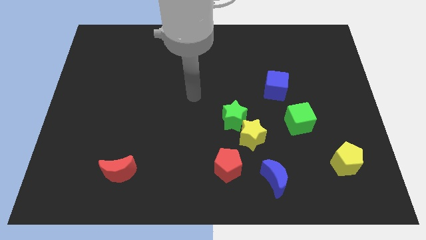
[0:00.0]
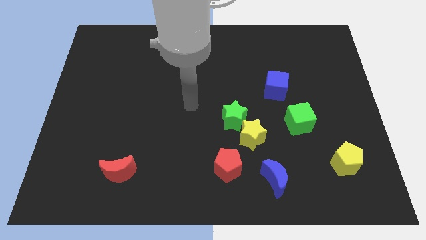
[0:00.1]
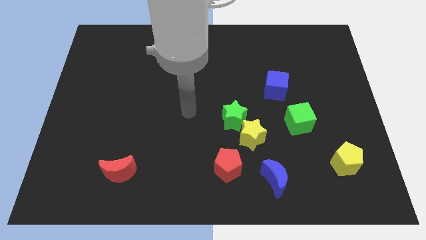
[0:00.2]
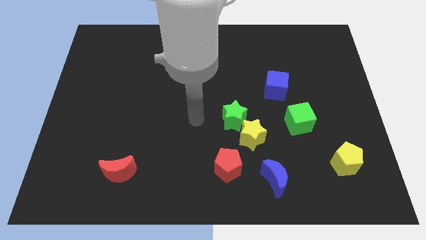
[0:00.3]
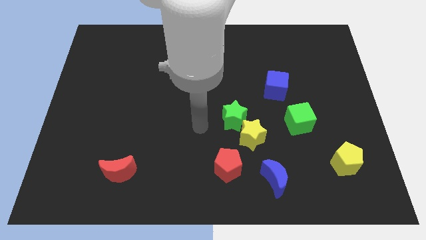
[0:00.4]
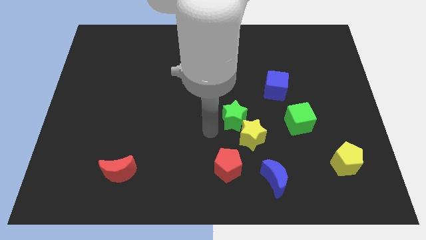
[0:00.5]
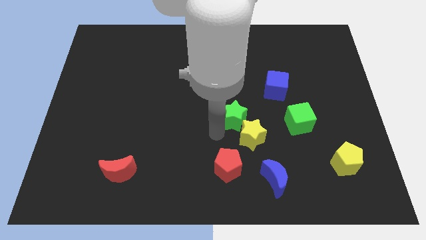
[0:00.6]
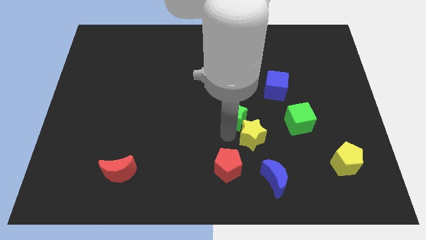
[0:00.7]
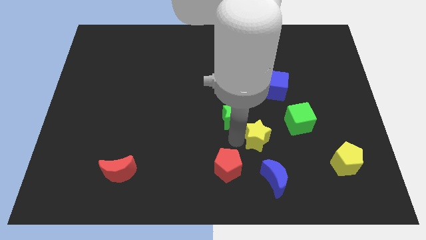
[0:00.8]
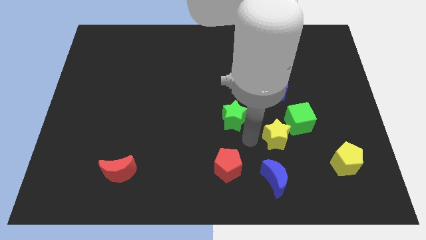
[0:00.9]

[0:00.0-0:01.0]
pull the green star apart from the yellow star

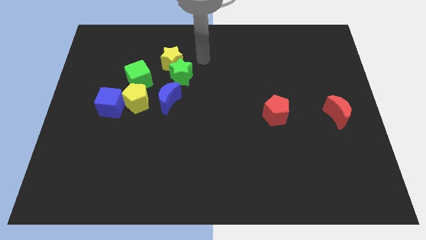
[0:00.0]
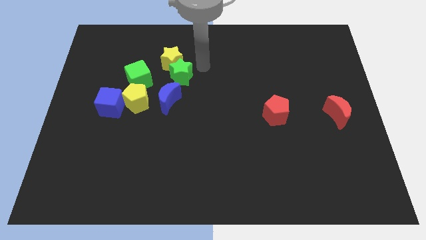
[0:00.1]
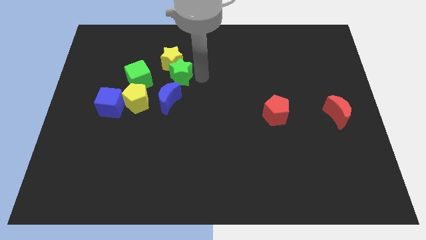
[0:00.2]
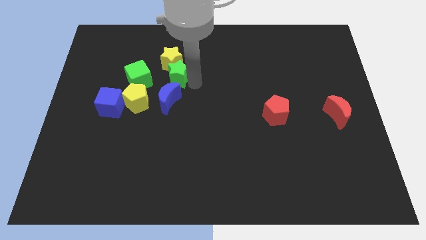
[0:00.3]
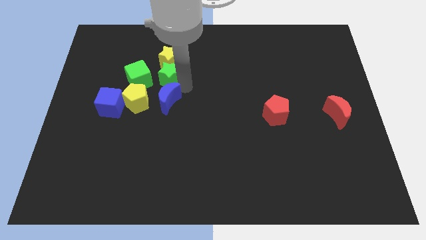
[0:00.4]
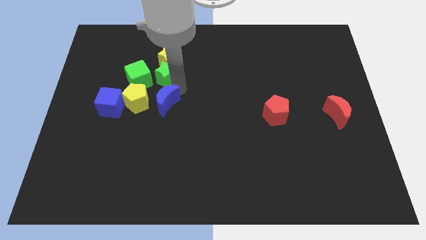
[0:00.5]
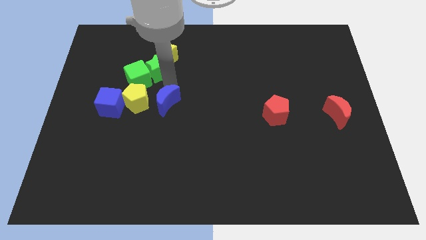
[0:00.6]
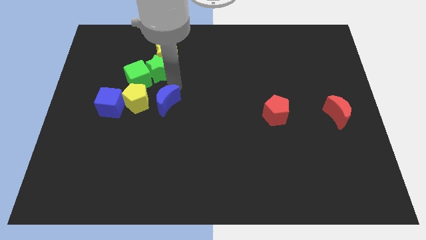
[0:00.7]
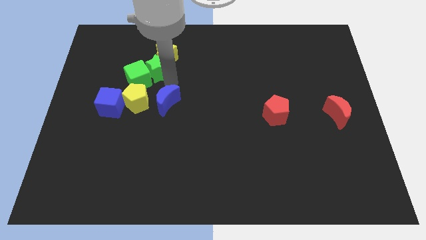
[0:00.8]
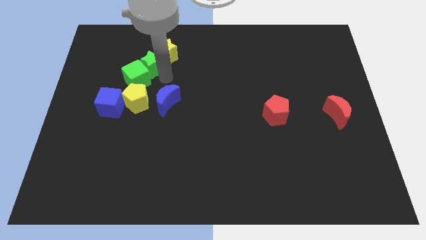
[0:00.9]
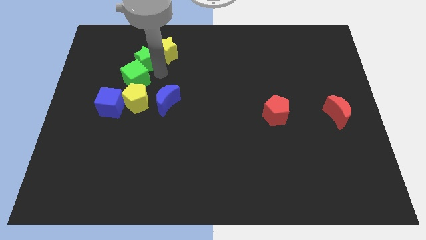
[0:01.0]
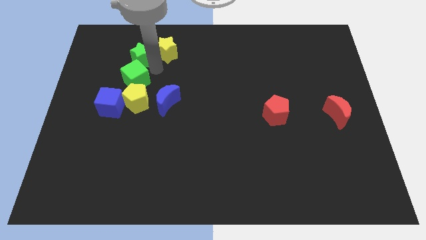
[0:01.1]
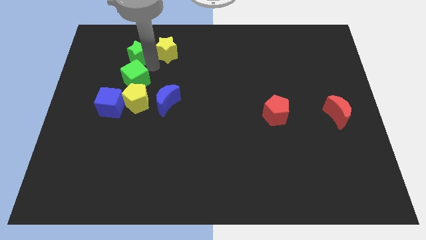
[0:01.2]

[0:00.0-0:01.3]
move the green star away from the yellow star and blue moon

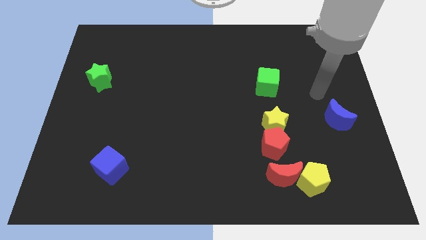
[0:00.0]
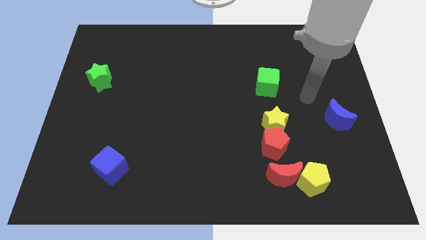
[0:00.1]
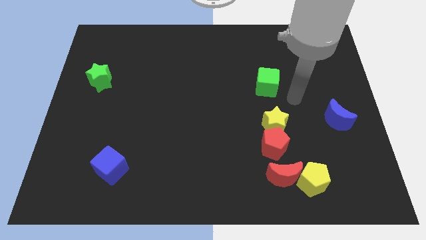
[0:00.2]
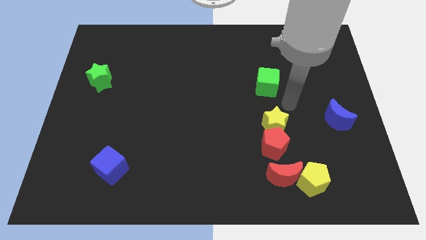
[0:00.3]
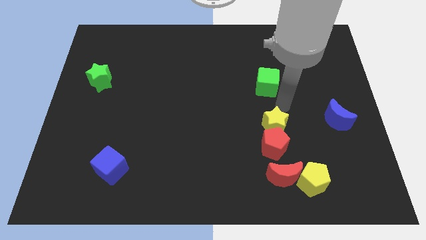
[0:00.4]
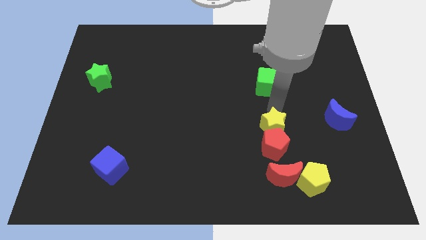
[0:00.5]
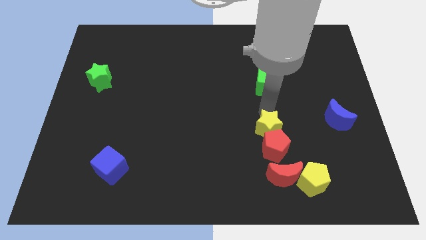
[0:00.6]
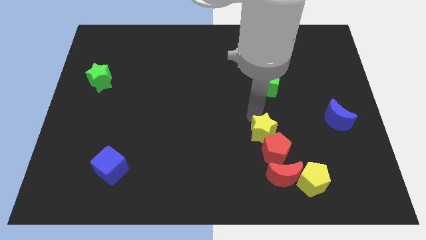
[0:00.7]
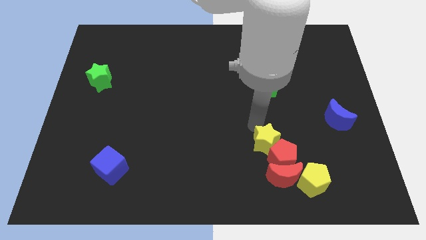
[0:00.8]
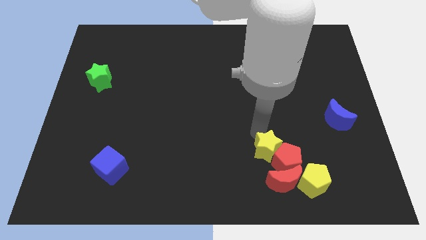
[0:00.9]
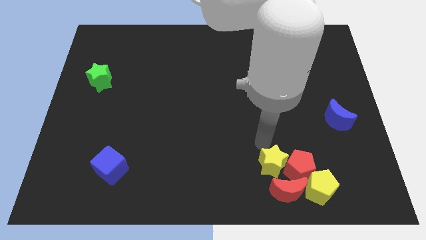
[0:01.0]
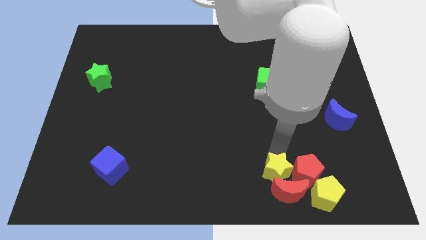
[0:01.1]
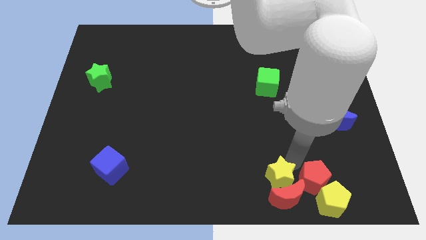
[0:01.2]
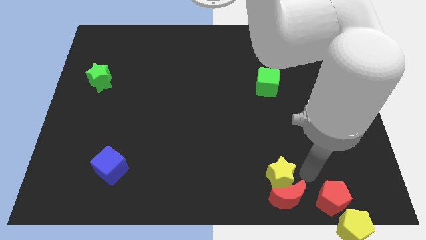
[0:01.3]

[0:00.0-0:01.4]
pull the yellow star apart from the red pentagon

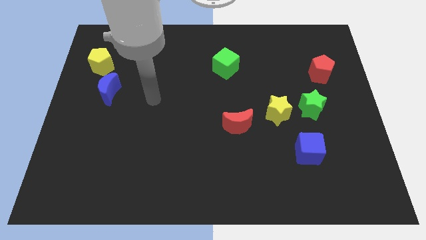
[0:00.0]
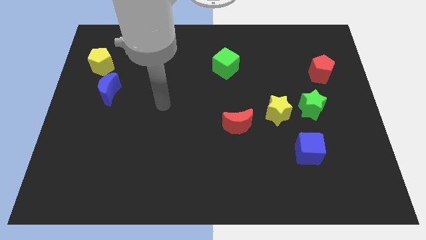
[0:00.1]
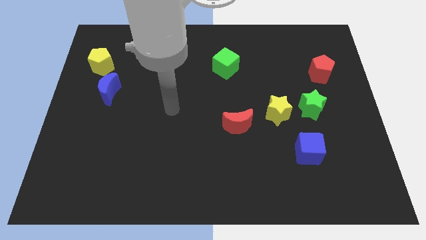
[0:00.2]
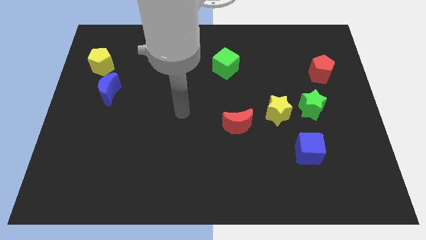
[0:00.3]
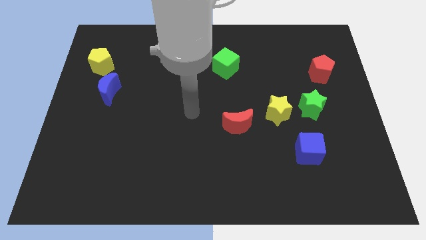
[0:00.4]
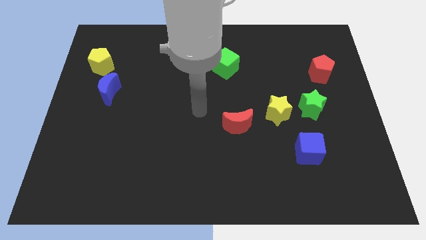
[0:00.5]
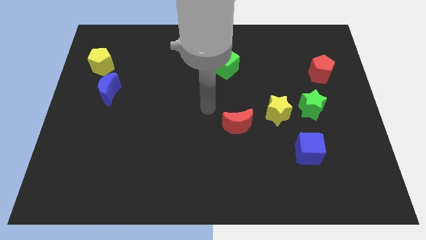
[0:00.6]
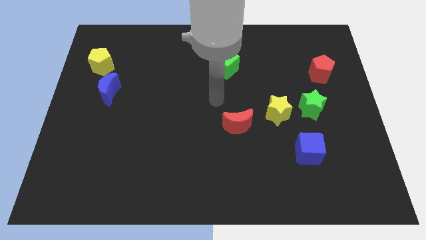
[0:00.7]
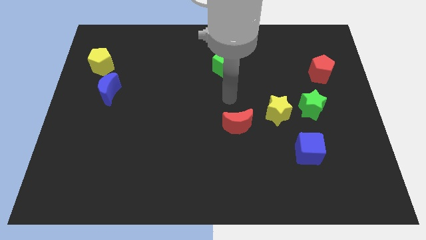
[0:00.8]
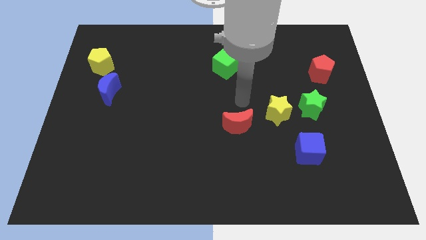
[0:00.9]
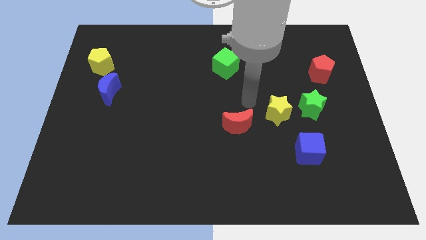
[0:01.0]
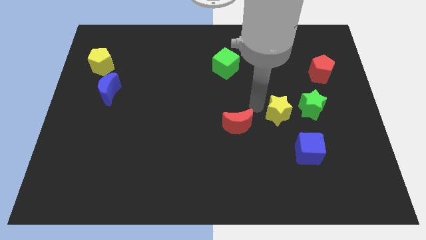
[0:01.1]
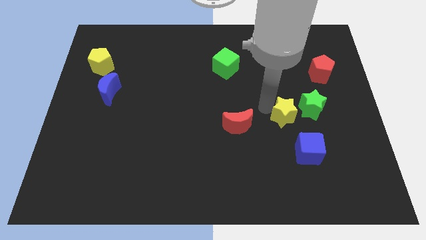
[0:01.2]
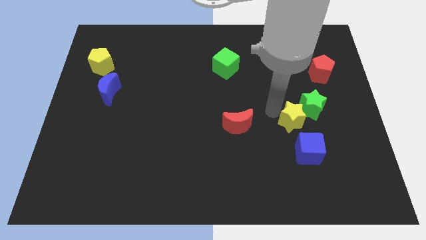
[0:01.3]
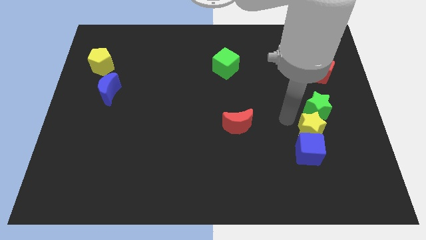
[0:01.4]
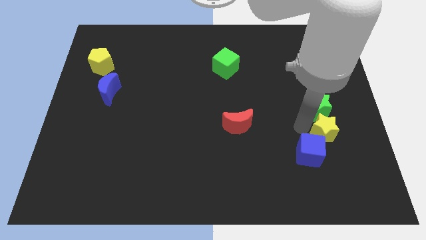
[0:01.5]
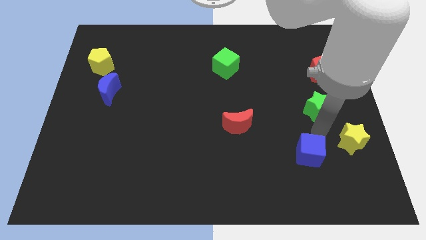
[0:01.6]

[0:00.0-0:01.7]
move the green star away from the yellow star

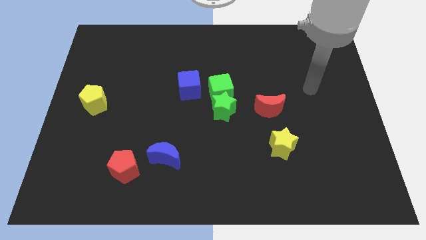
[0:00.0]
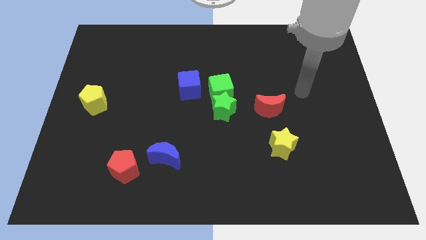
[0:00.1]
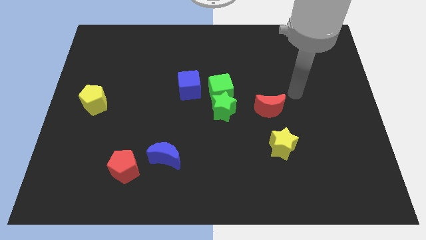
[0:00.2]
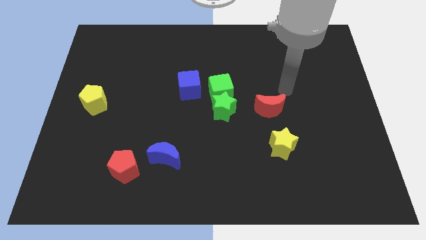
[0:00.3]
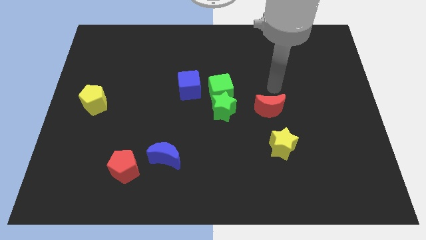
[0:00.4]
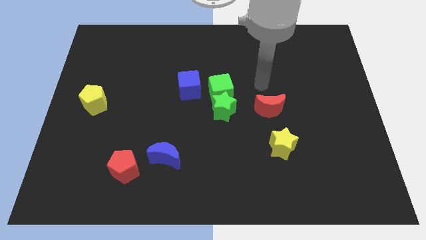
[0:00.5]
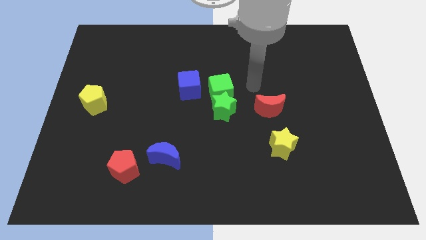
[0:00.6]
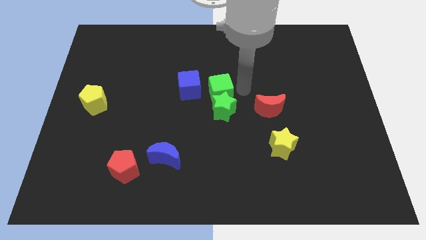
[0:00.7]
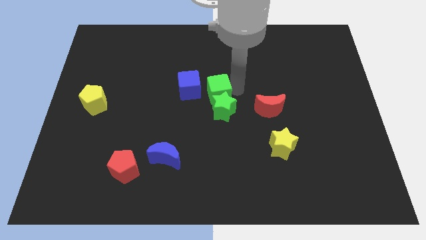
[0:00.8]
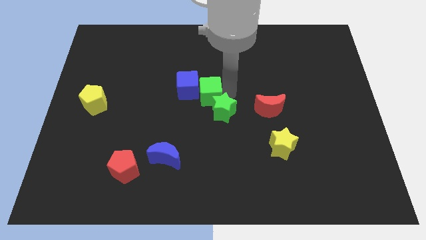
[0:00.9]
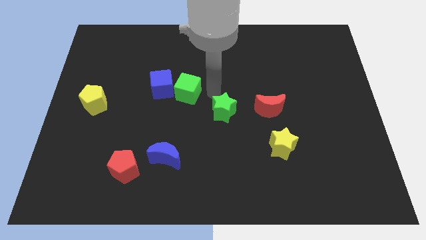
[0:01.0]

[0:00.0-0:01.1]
separate the green star from the green cube

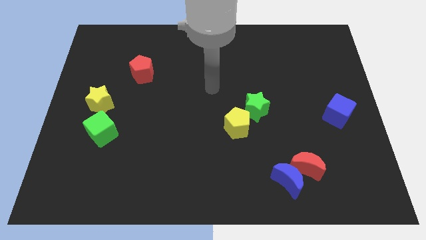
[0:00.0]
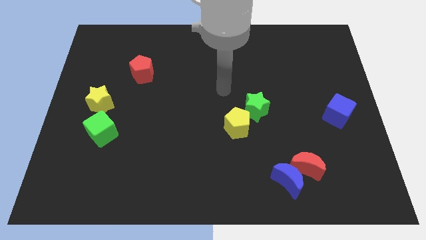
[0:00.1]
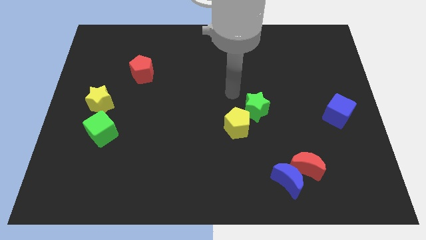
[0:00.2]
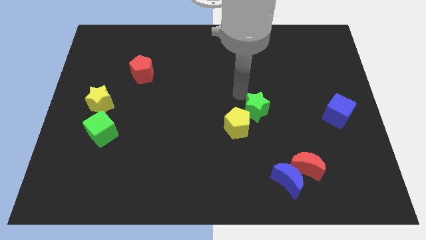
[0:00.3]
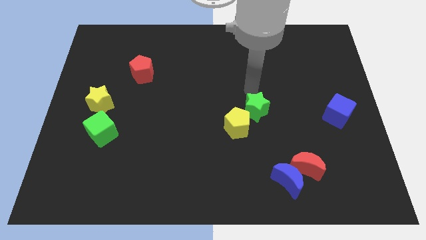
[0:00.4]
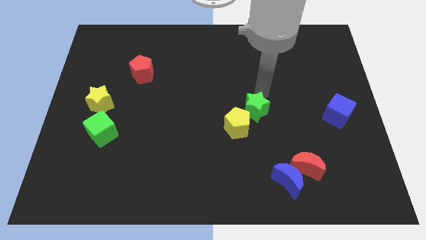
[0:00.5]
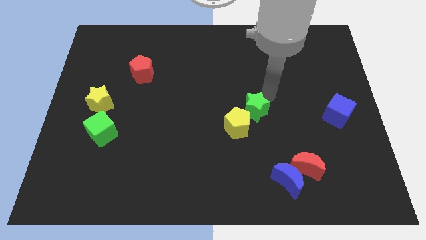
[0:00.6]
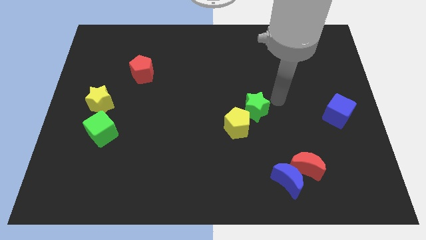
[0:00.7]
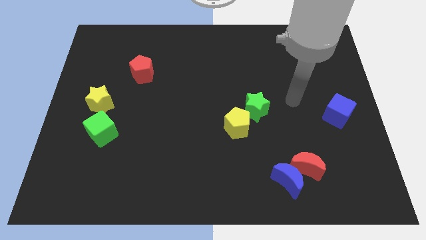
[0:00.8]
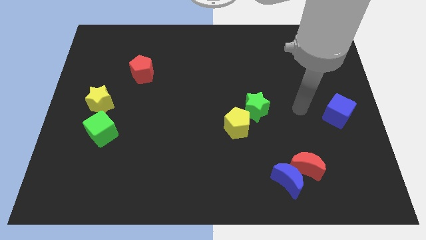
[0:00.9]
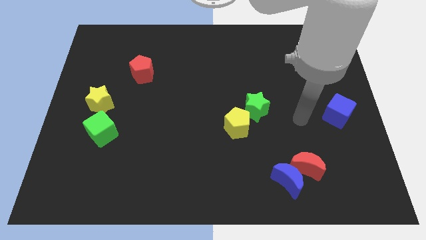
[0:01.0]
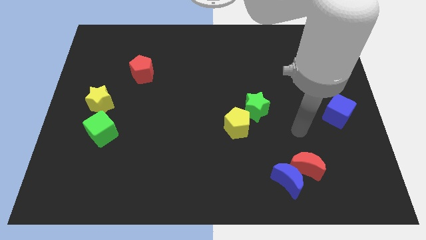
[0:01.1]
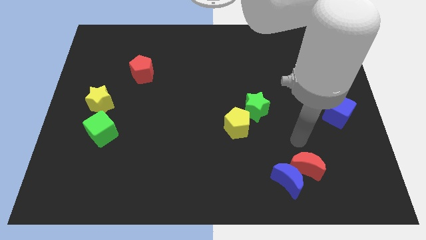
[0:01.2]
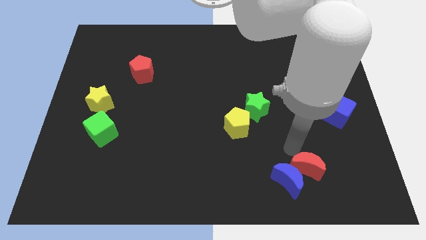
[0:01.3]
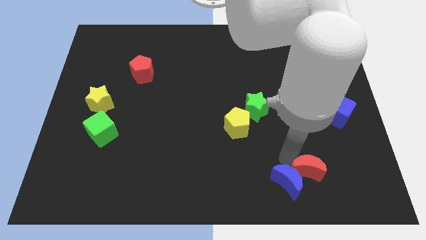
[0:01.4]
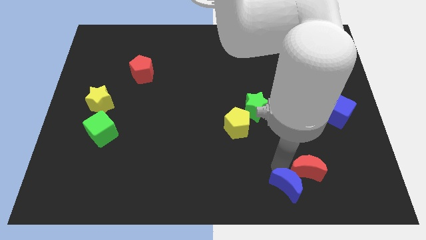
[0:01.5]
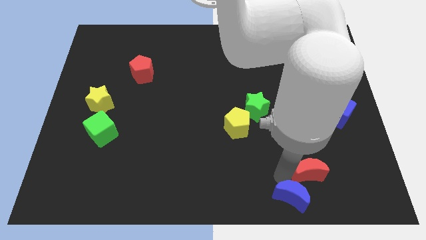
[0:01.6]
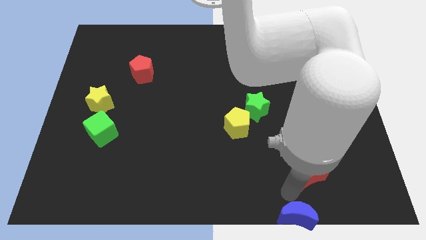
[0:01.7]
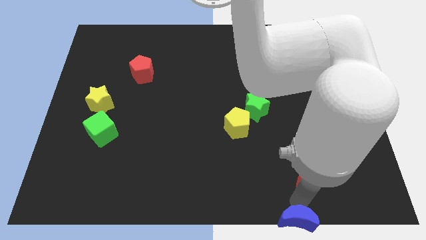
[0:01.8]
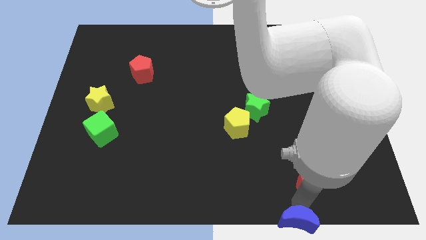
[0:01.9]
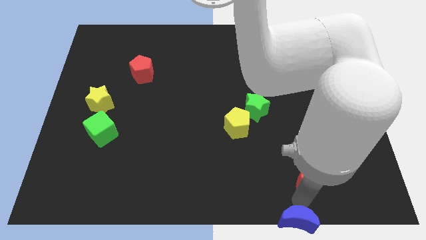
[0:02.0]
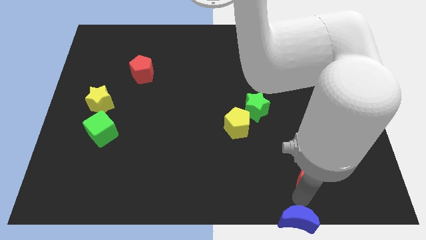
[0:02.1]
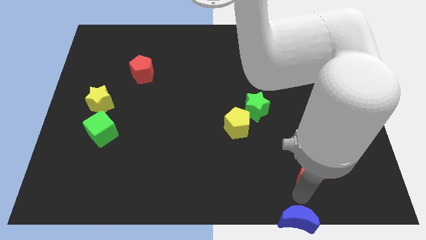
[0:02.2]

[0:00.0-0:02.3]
pull the red moon apart from the blue moon

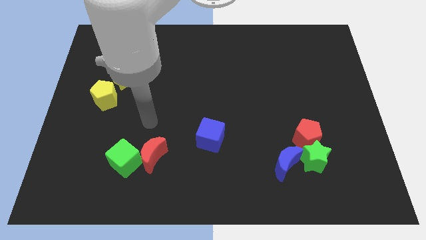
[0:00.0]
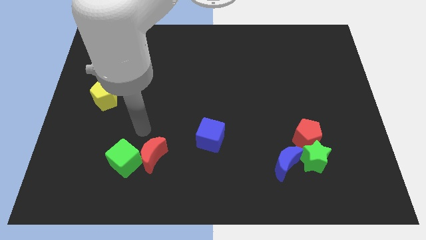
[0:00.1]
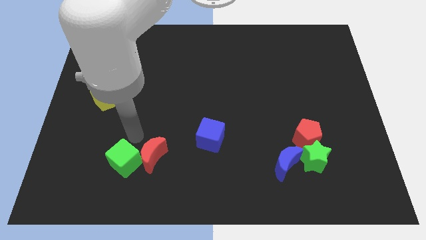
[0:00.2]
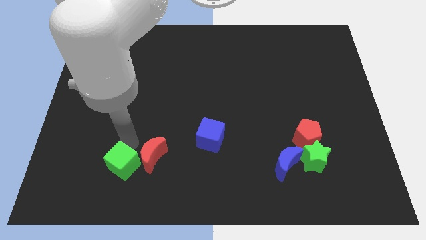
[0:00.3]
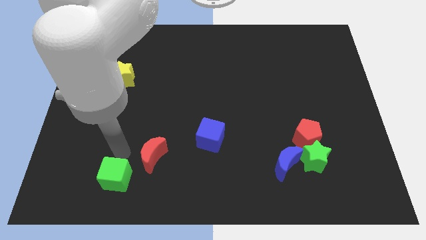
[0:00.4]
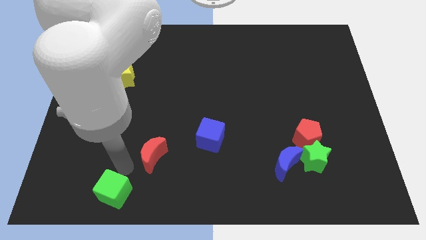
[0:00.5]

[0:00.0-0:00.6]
pull the red moon apart from the green cube
